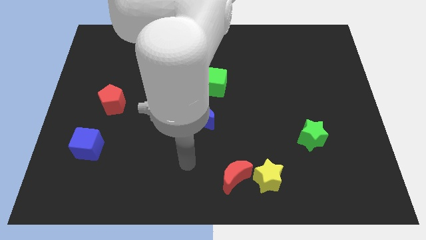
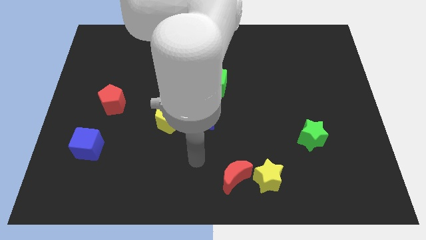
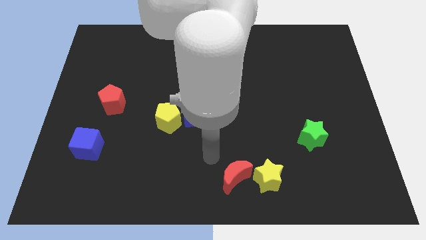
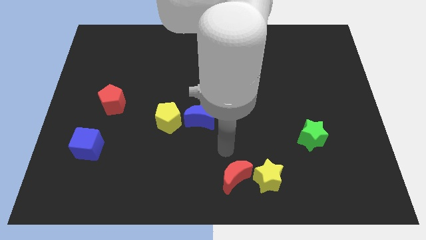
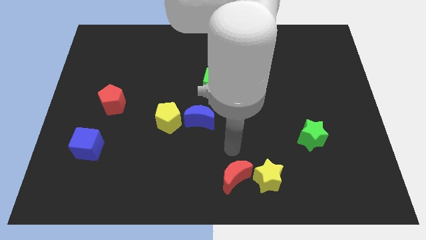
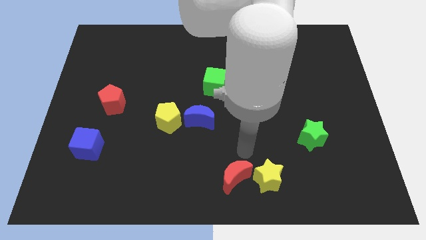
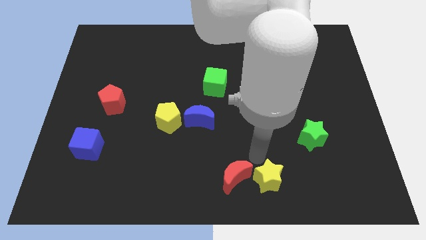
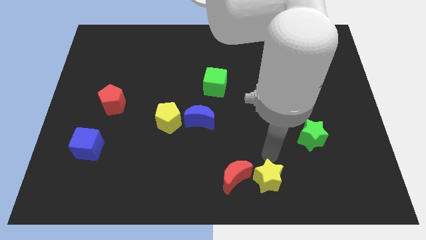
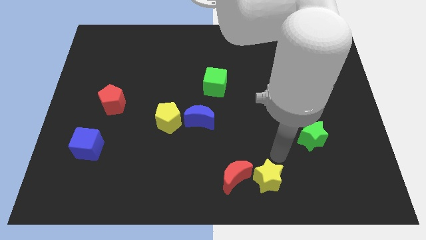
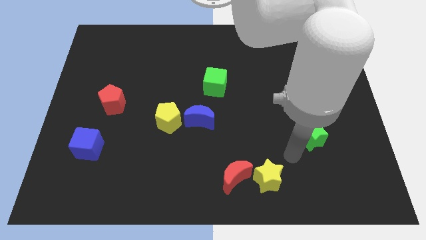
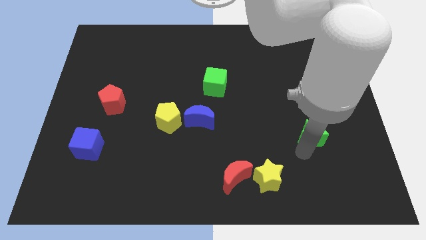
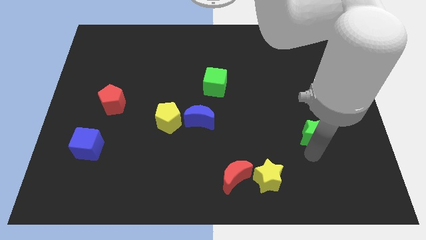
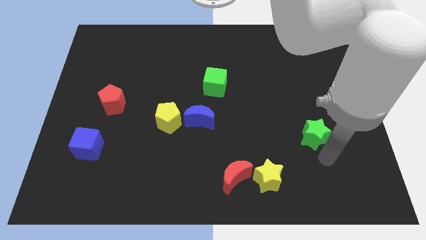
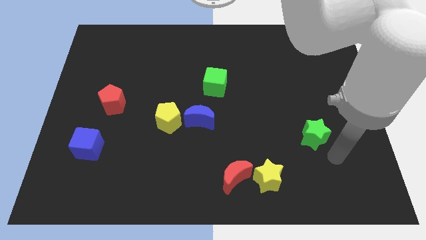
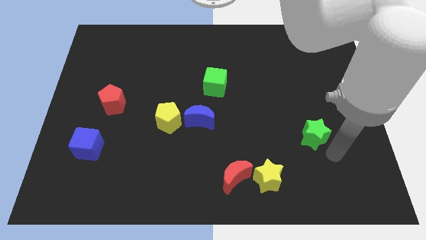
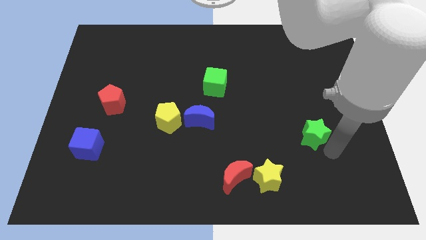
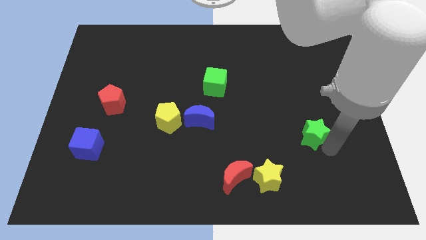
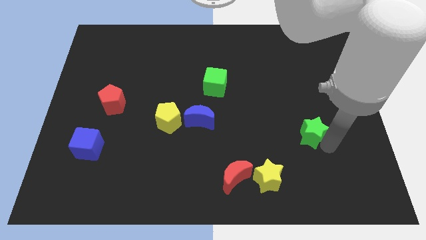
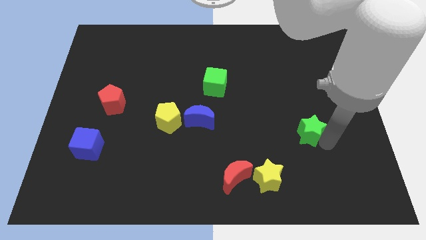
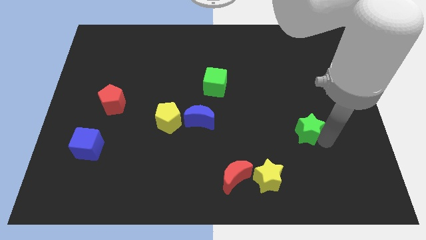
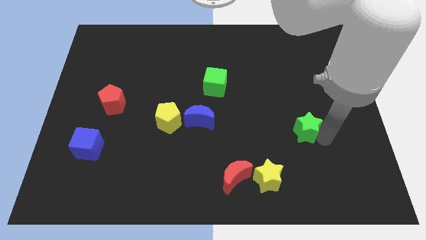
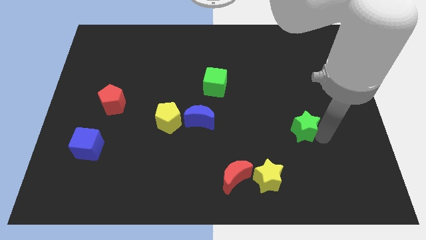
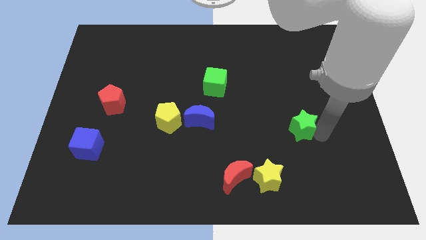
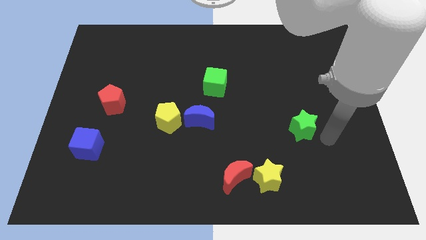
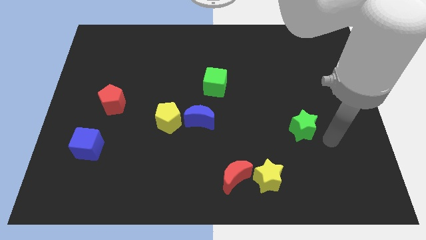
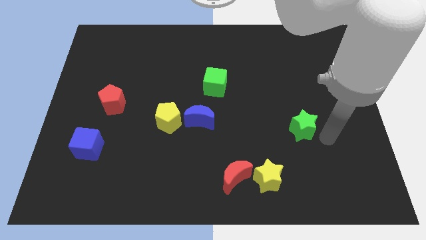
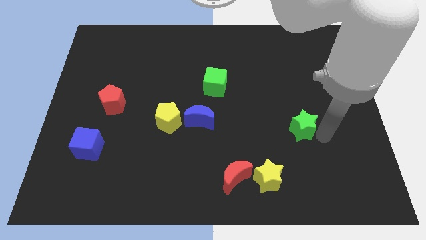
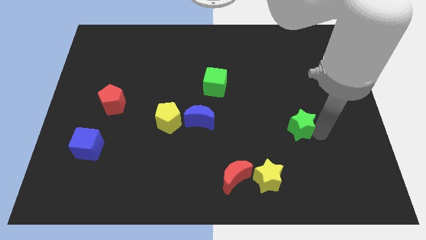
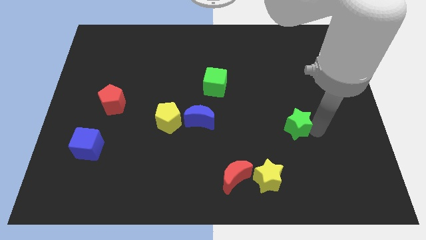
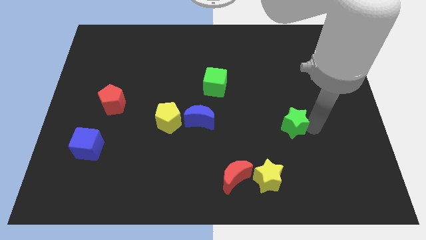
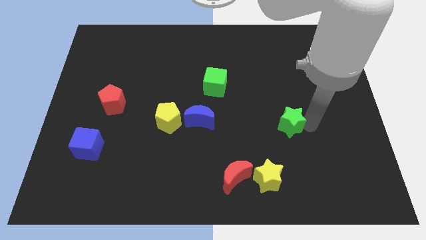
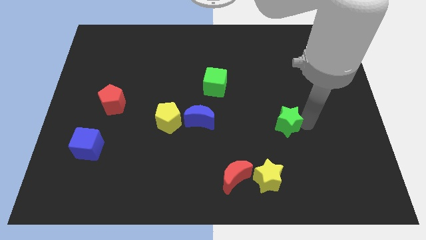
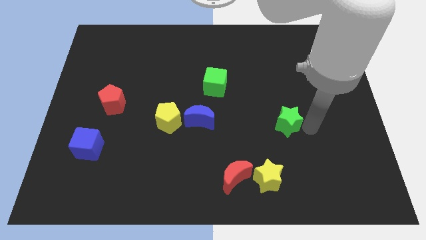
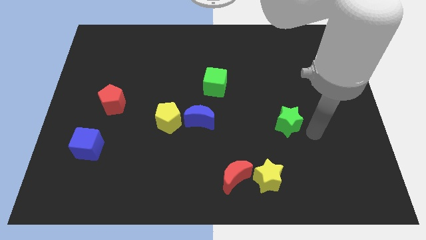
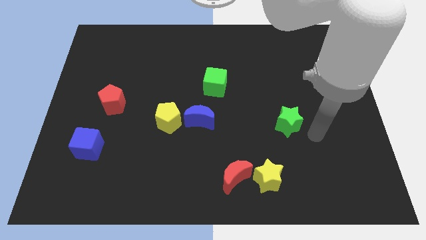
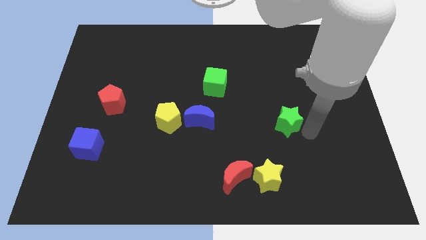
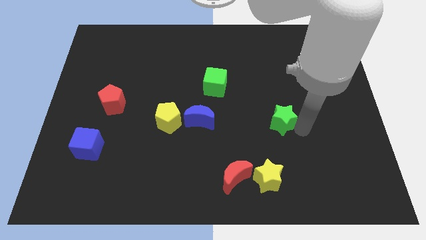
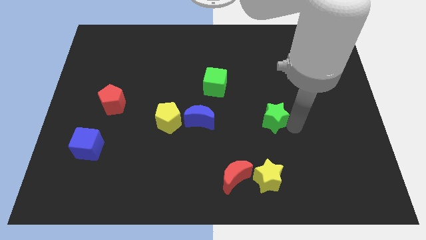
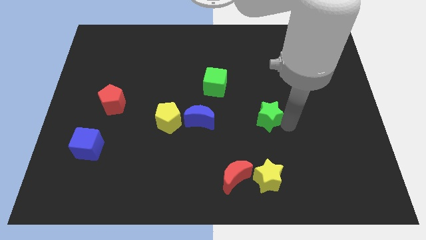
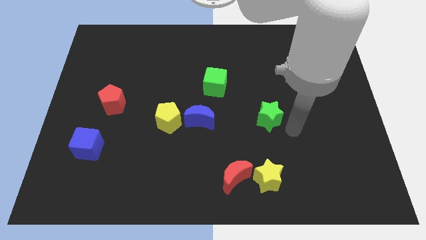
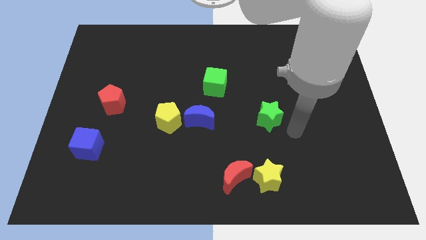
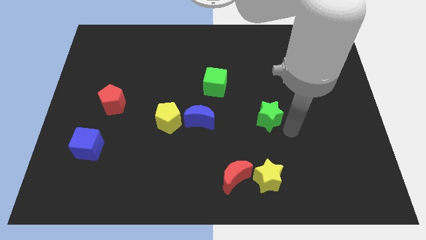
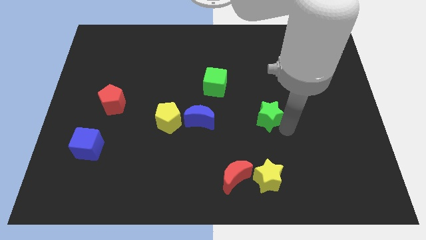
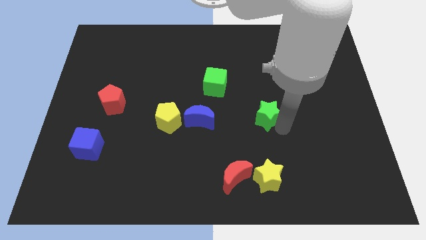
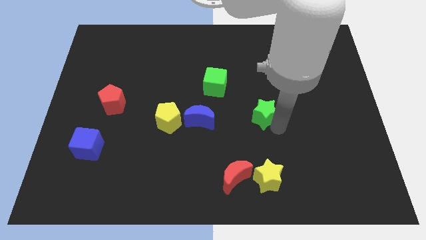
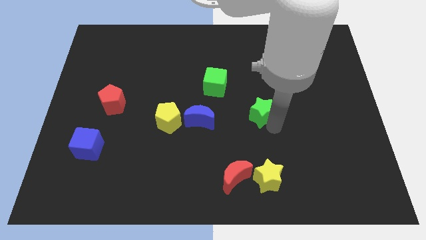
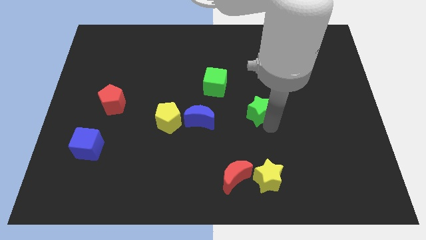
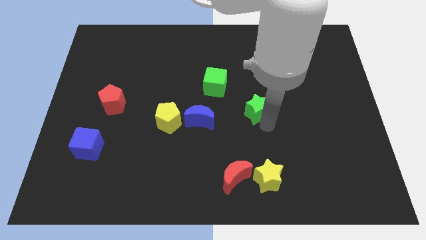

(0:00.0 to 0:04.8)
put the green star to the bottom right side of the green cube

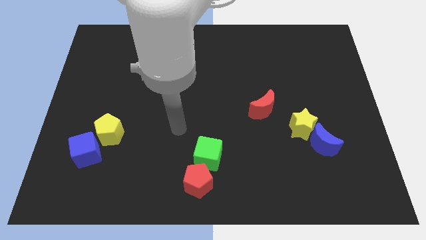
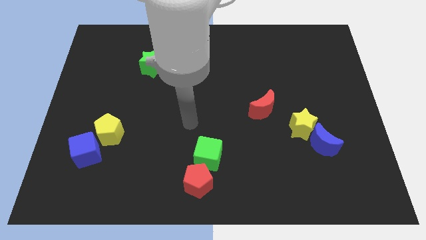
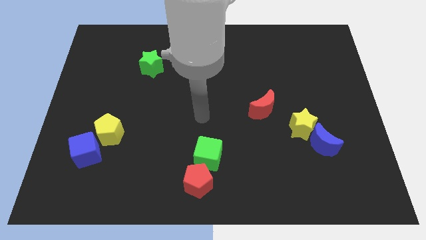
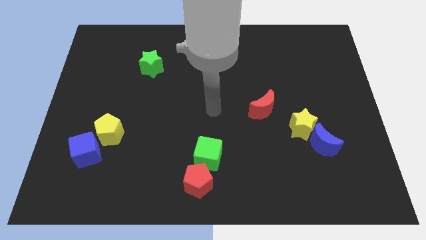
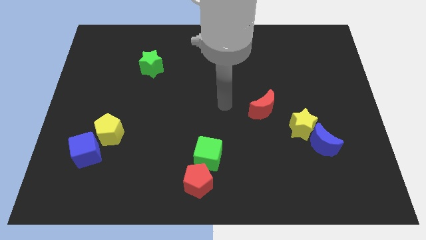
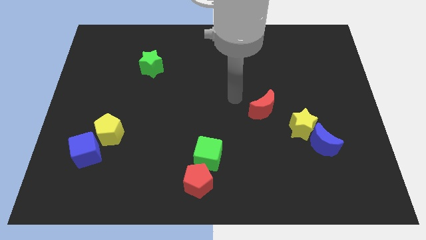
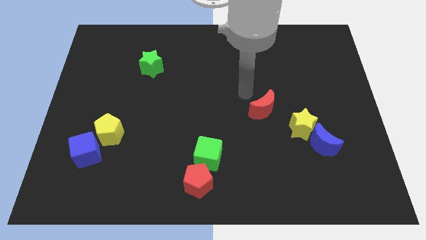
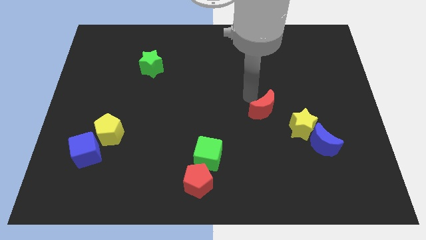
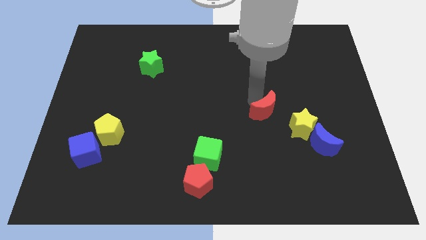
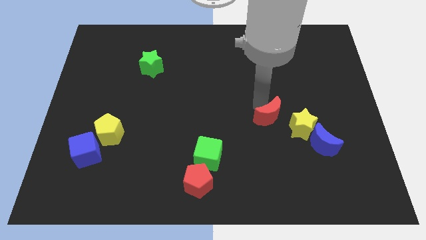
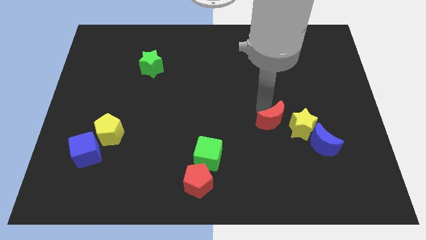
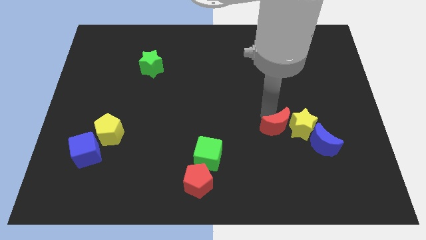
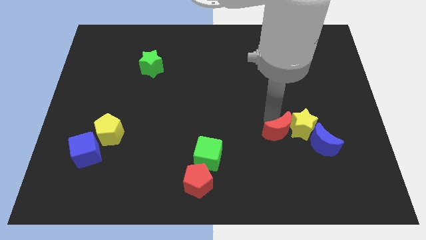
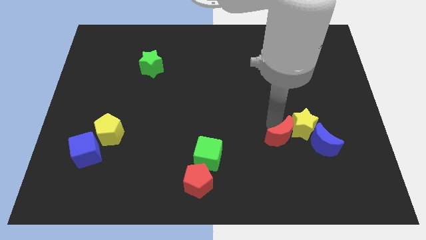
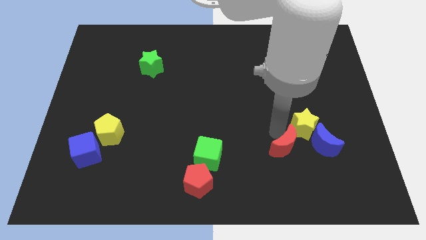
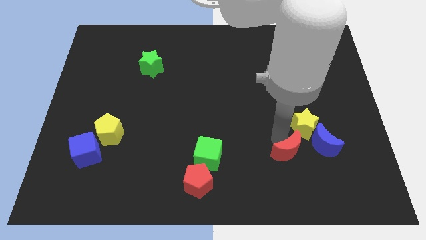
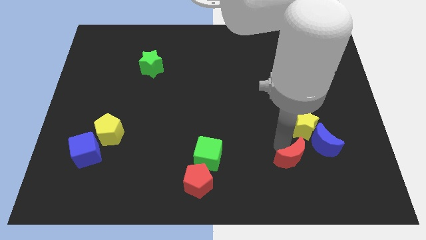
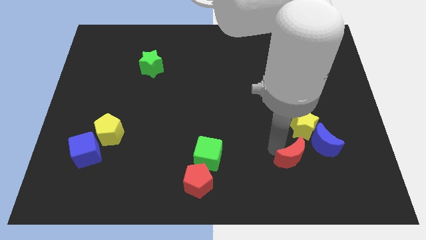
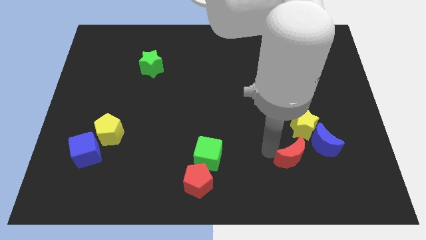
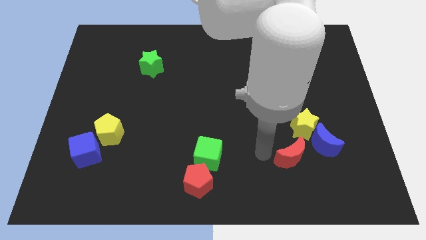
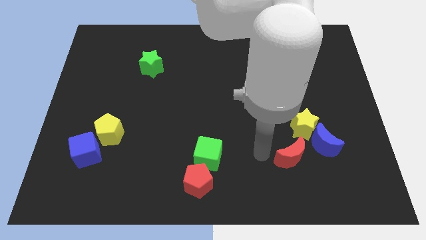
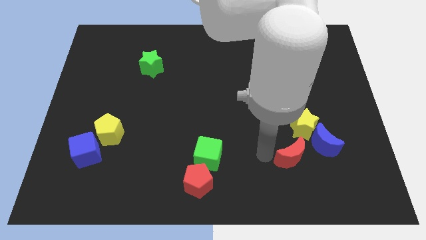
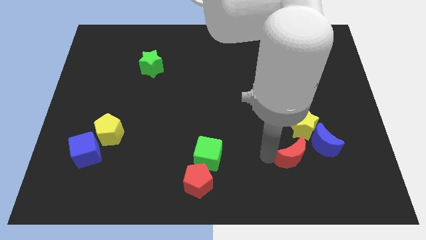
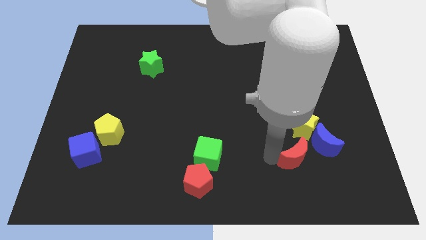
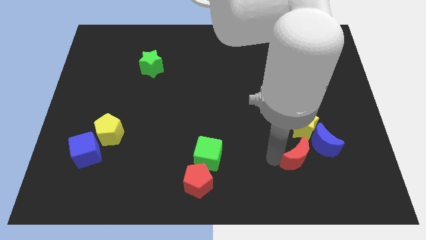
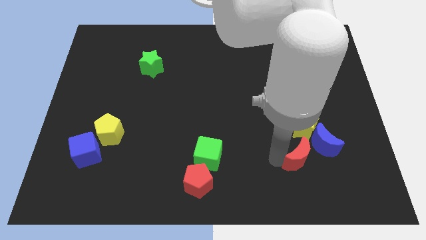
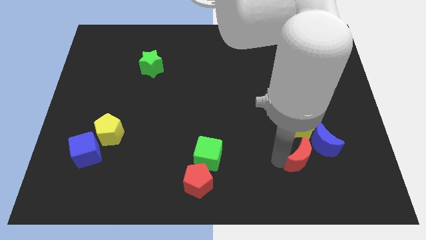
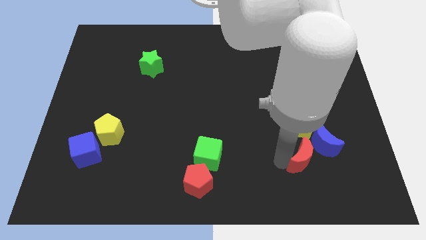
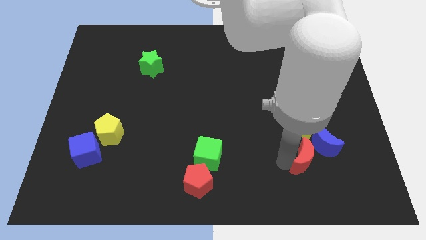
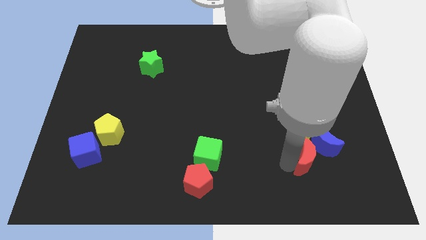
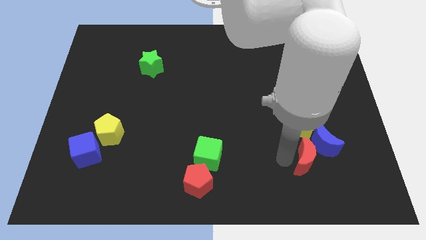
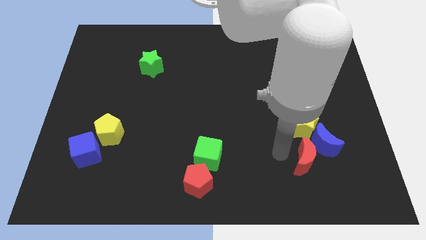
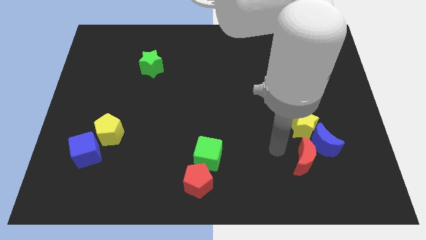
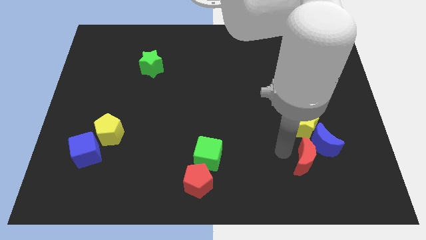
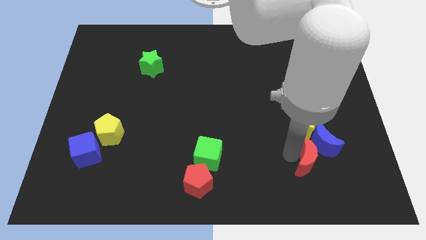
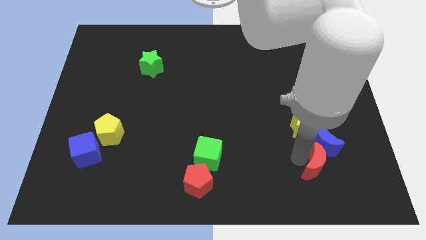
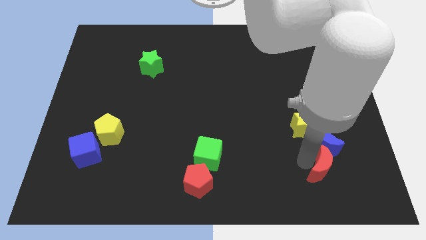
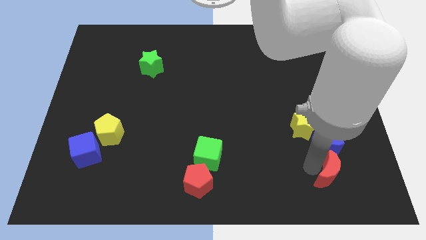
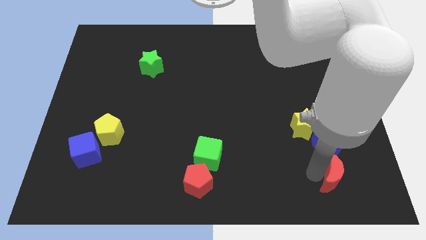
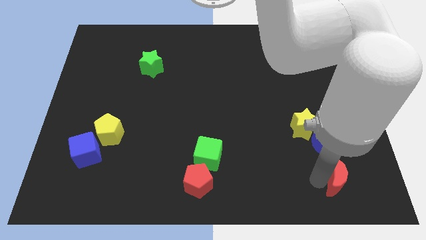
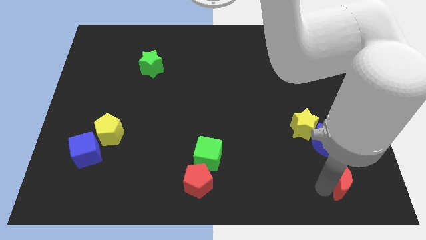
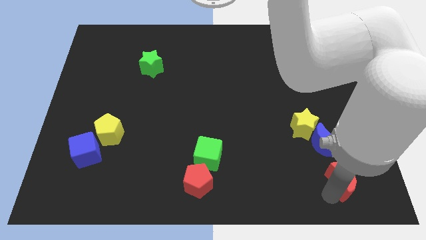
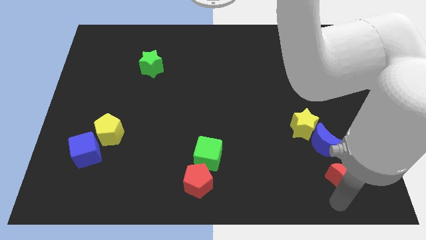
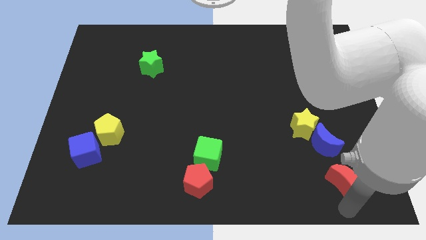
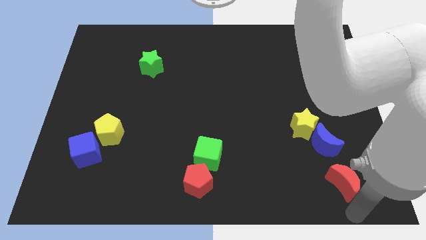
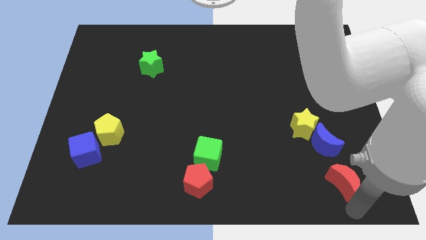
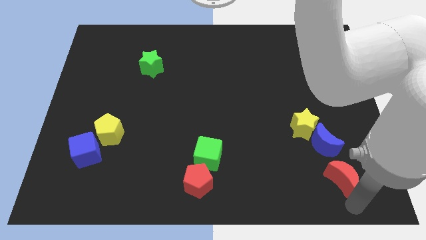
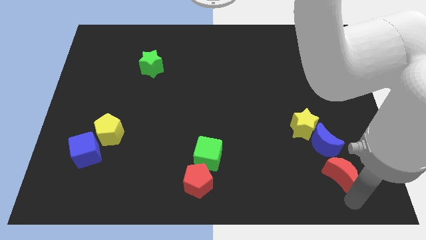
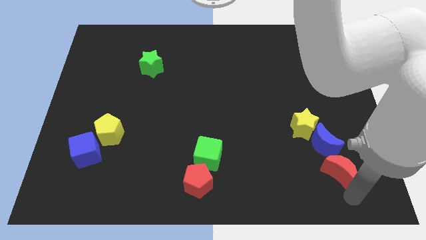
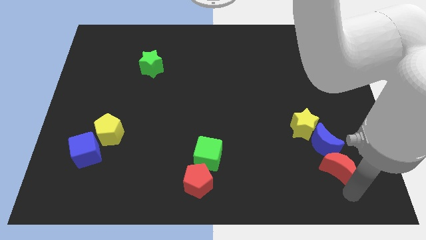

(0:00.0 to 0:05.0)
put the red moon to the bottom right of the yellow star
